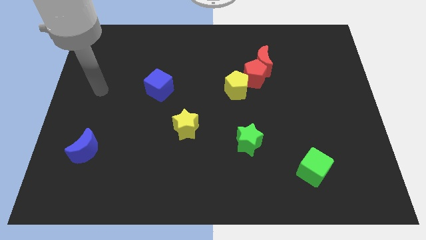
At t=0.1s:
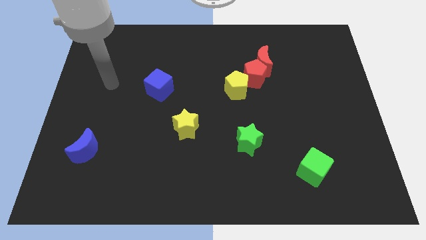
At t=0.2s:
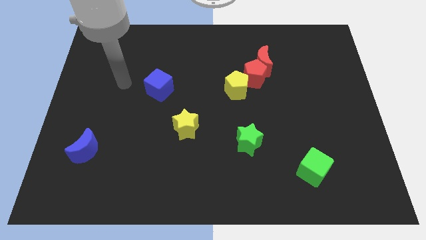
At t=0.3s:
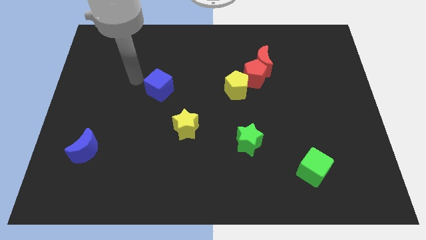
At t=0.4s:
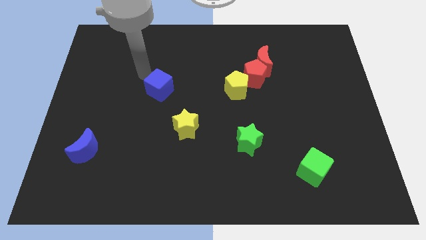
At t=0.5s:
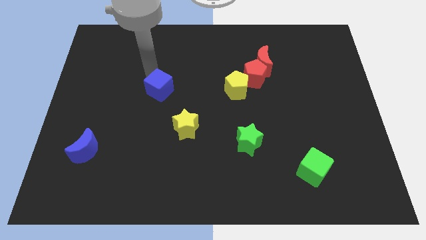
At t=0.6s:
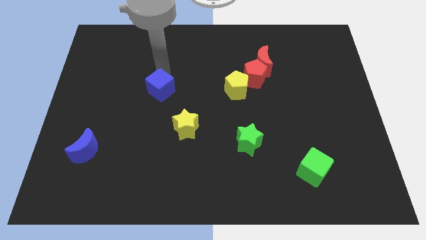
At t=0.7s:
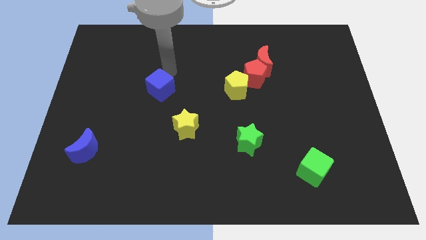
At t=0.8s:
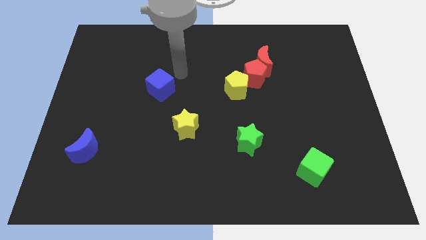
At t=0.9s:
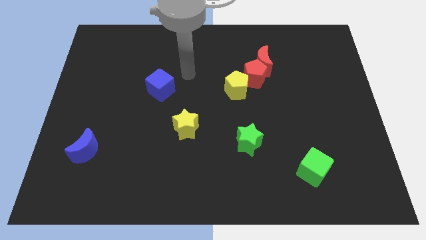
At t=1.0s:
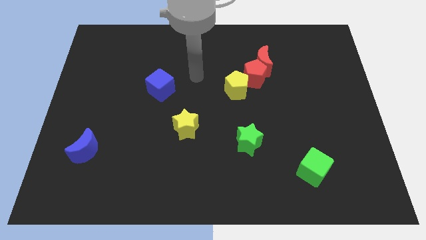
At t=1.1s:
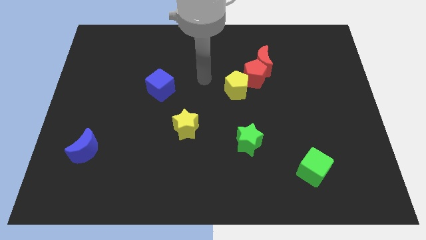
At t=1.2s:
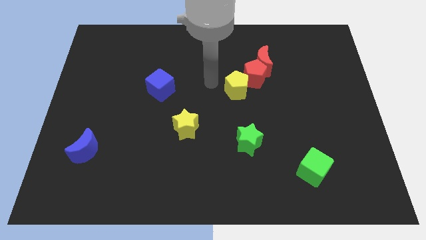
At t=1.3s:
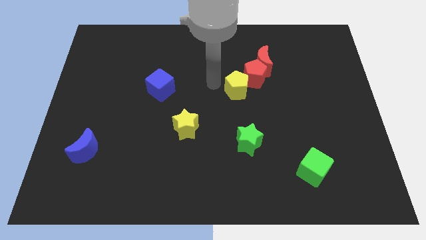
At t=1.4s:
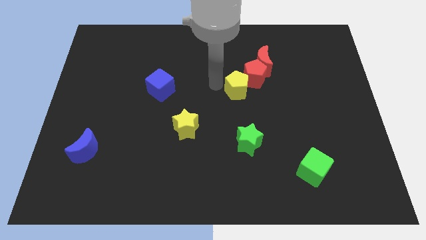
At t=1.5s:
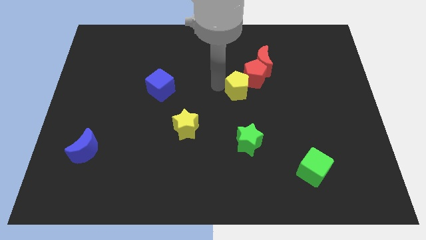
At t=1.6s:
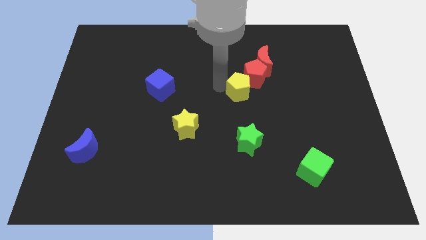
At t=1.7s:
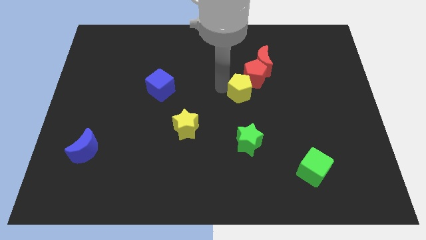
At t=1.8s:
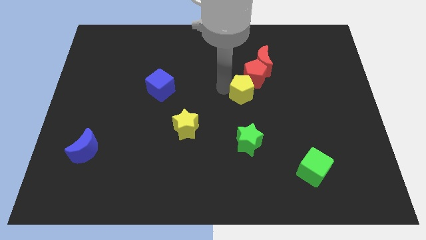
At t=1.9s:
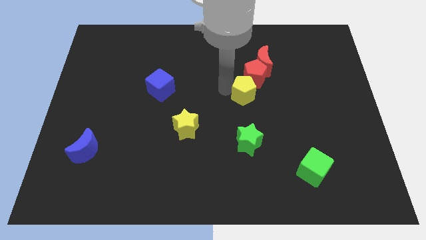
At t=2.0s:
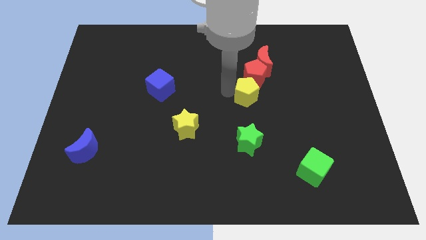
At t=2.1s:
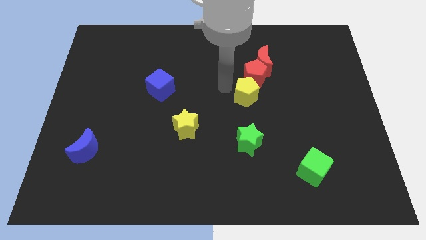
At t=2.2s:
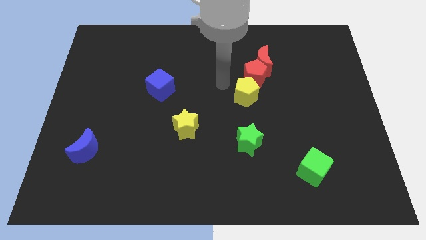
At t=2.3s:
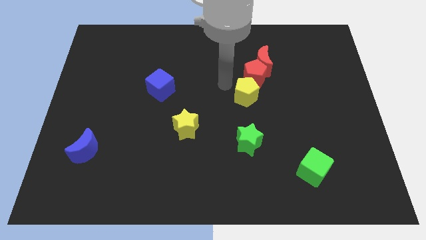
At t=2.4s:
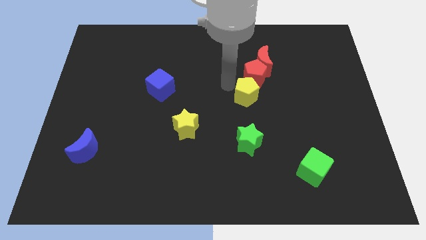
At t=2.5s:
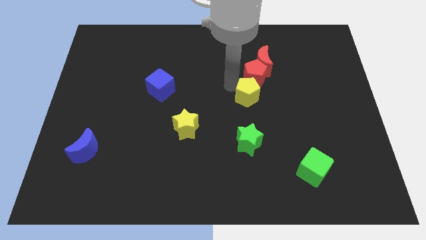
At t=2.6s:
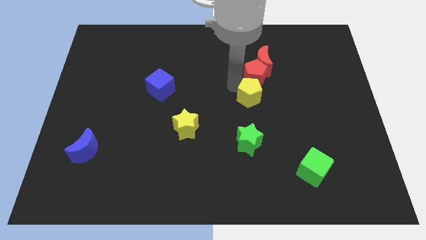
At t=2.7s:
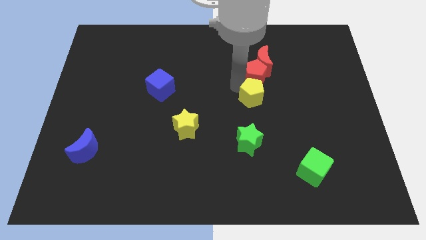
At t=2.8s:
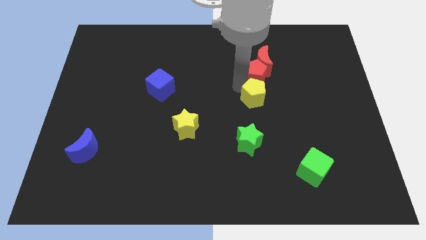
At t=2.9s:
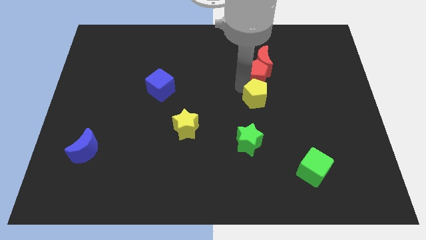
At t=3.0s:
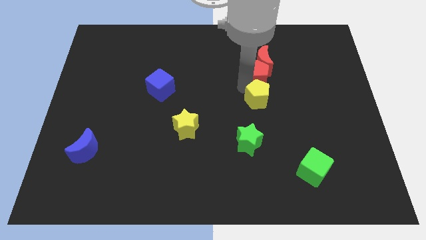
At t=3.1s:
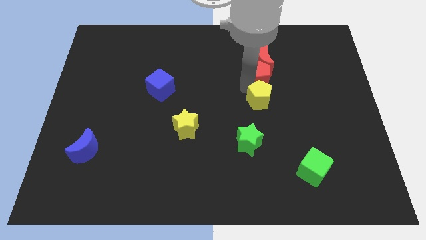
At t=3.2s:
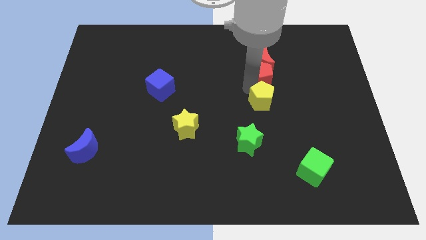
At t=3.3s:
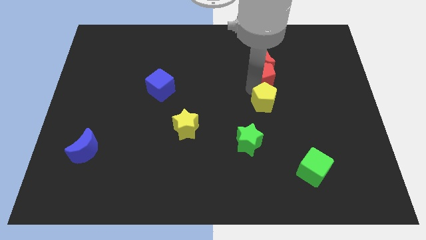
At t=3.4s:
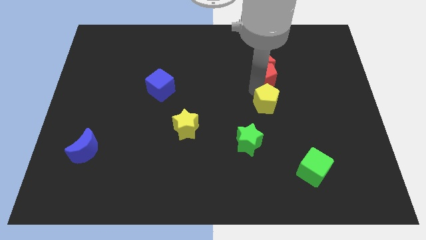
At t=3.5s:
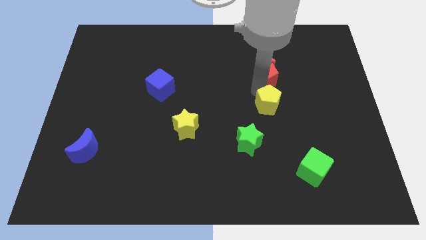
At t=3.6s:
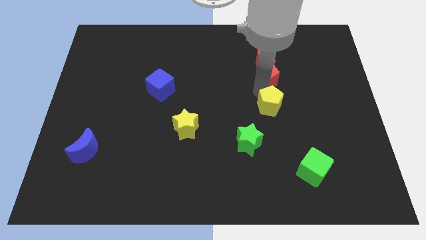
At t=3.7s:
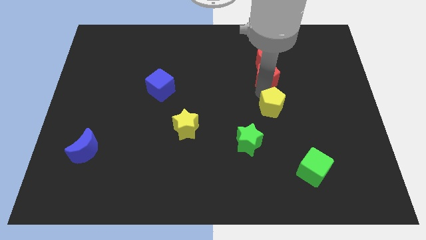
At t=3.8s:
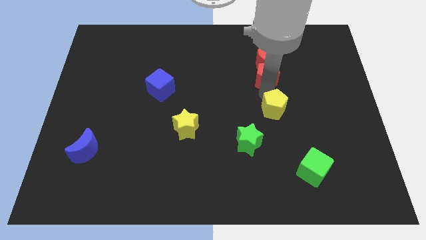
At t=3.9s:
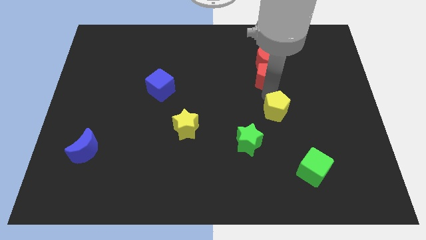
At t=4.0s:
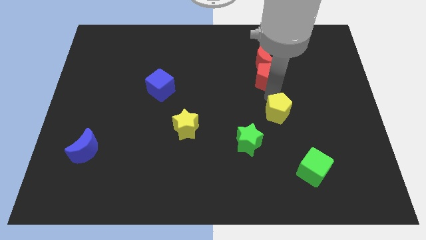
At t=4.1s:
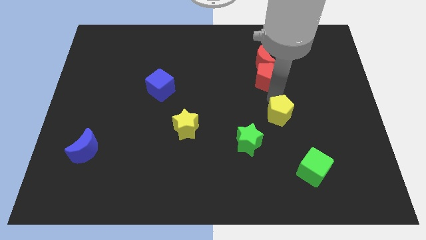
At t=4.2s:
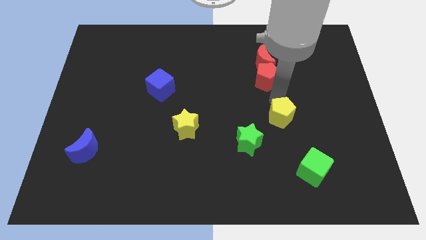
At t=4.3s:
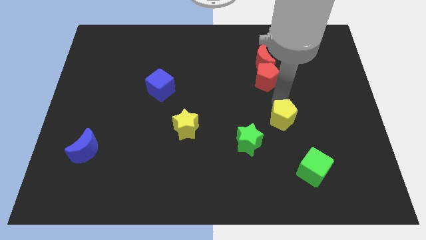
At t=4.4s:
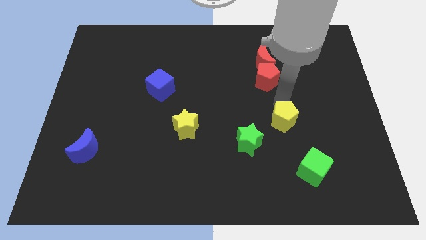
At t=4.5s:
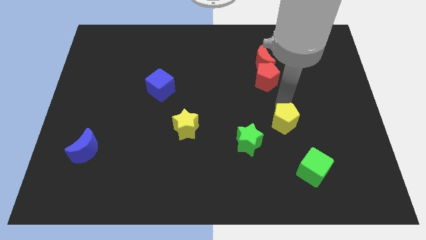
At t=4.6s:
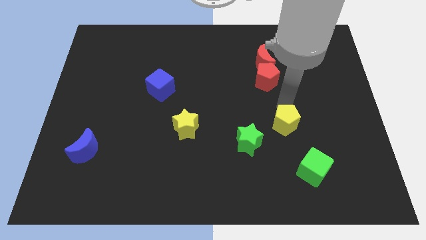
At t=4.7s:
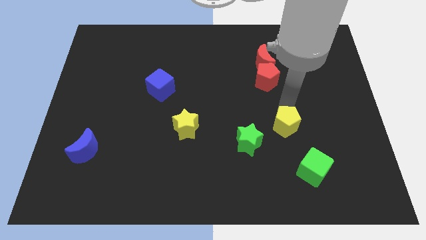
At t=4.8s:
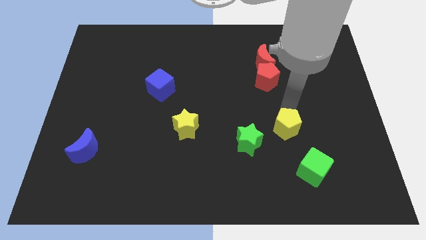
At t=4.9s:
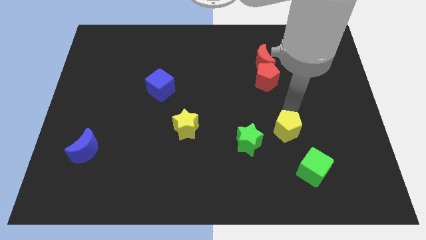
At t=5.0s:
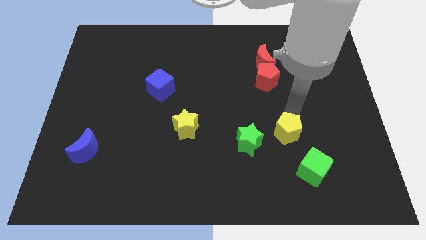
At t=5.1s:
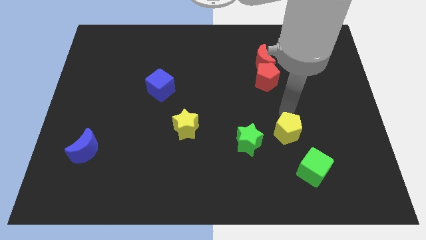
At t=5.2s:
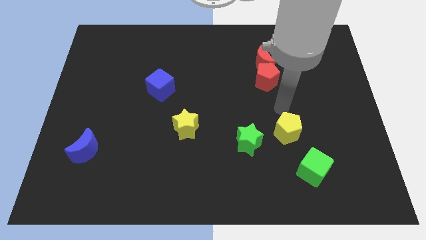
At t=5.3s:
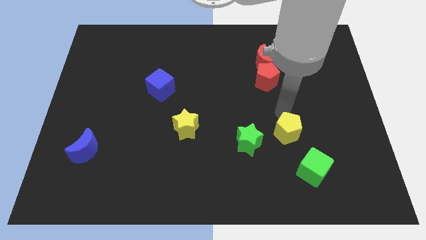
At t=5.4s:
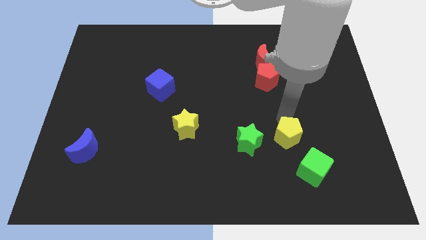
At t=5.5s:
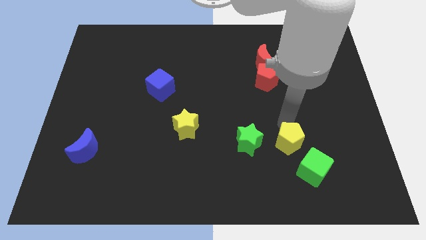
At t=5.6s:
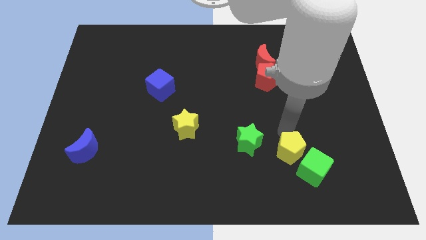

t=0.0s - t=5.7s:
move the yellow pentagon close to the green cube

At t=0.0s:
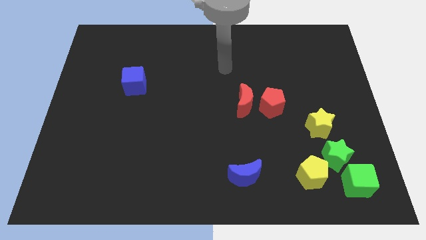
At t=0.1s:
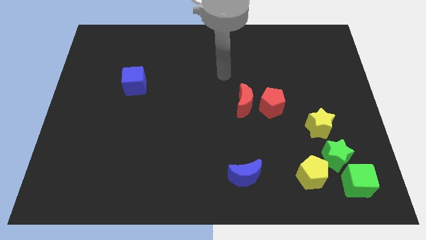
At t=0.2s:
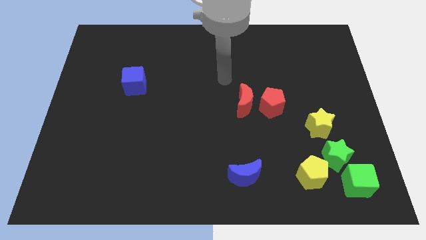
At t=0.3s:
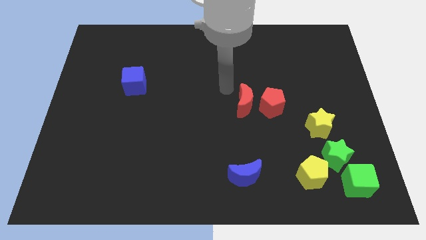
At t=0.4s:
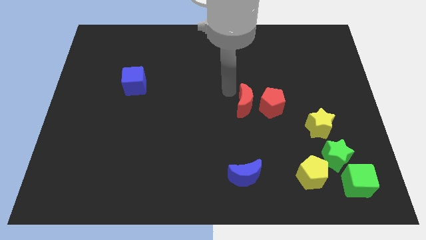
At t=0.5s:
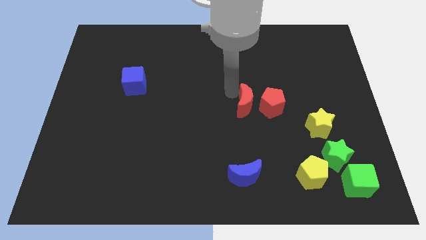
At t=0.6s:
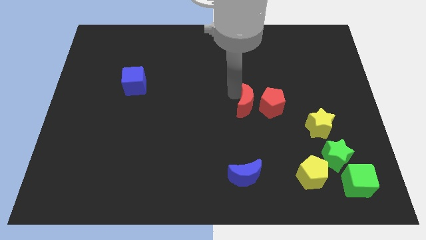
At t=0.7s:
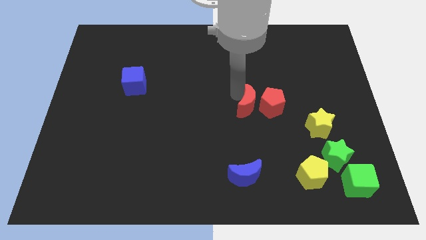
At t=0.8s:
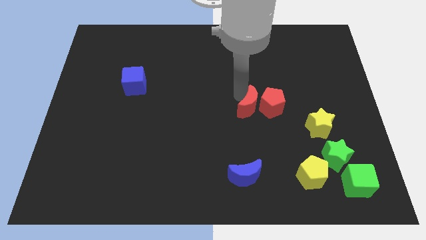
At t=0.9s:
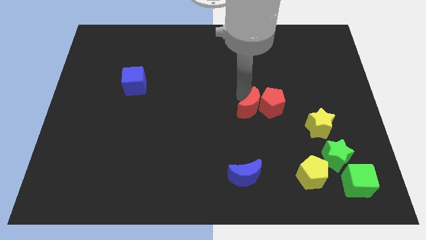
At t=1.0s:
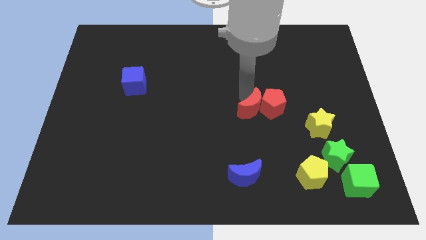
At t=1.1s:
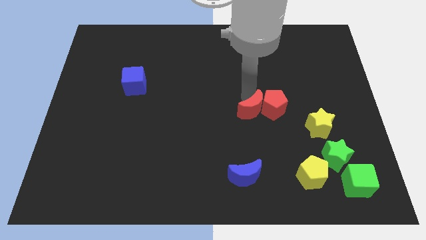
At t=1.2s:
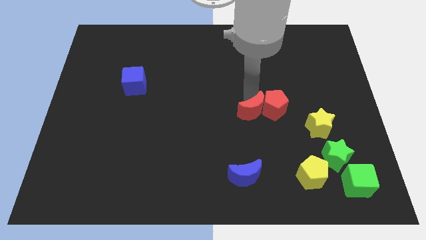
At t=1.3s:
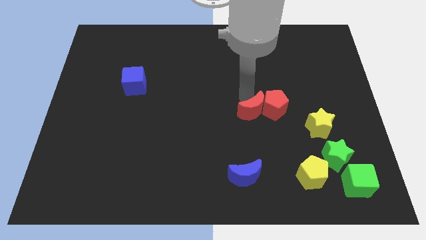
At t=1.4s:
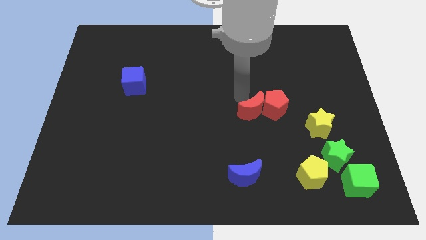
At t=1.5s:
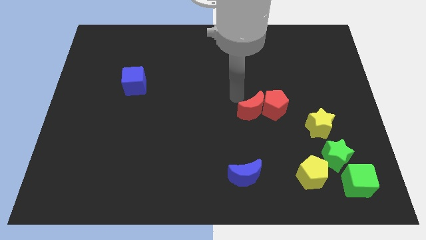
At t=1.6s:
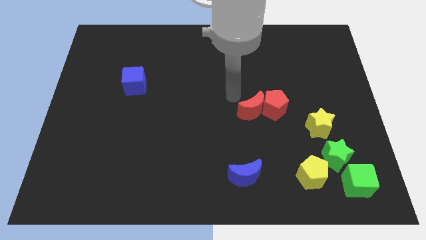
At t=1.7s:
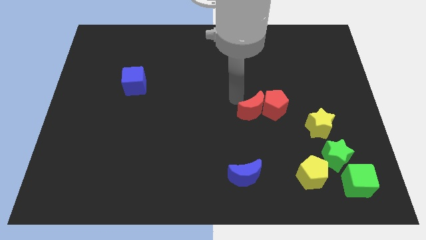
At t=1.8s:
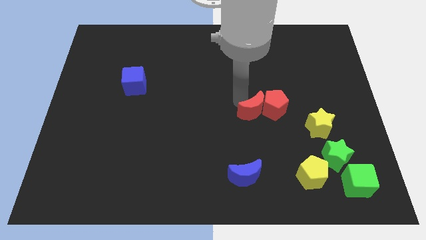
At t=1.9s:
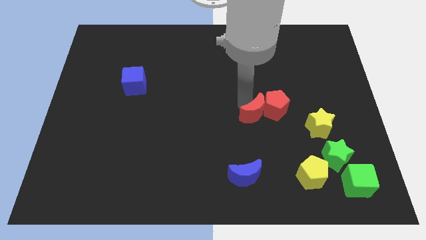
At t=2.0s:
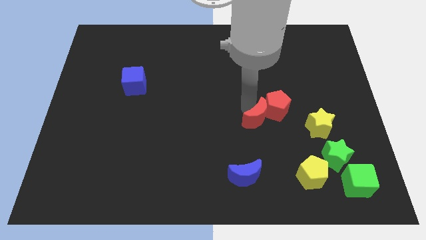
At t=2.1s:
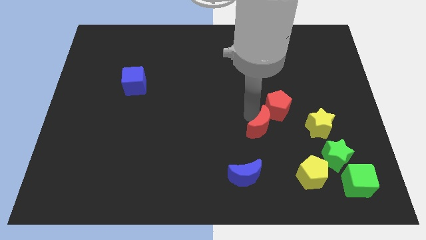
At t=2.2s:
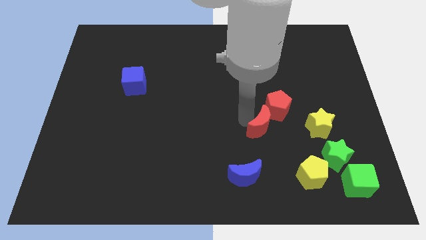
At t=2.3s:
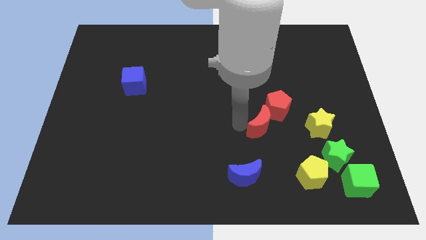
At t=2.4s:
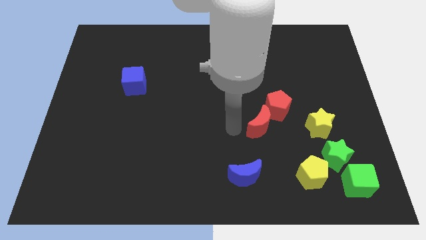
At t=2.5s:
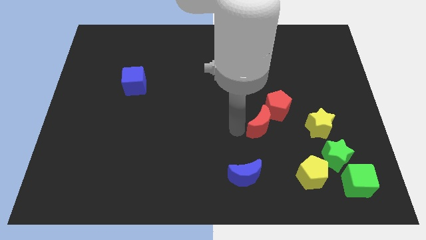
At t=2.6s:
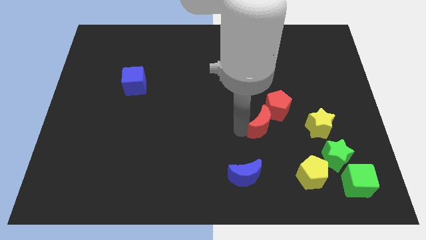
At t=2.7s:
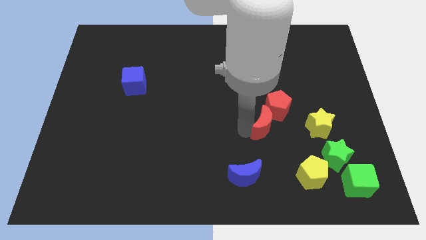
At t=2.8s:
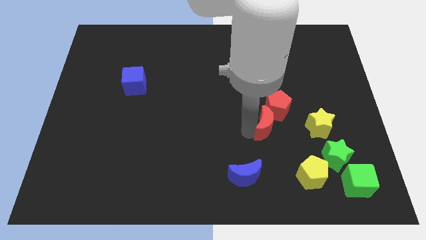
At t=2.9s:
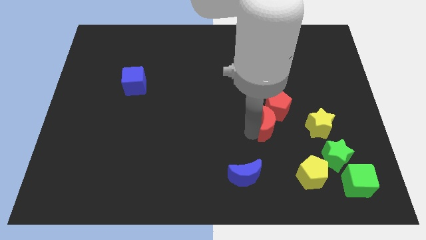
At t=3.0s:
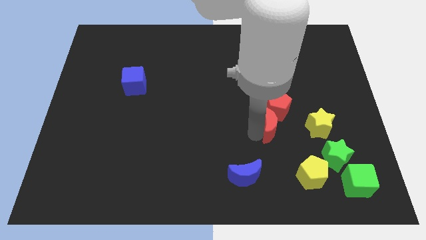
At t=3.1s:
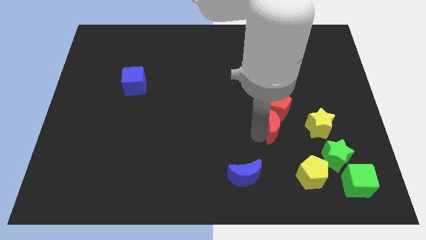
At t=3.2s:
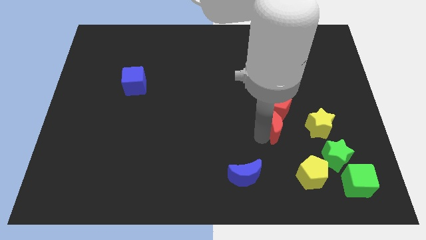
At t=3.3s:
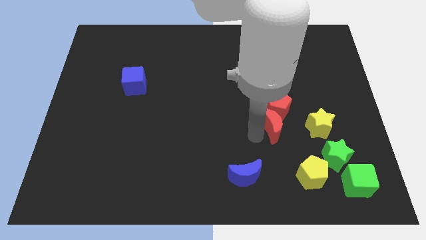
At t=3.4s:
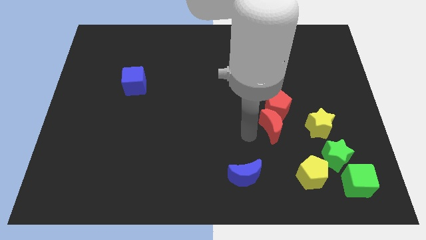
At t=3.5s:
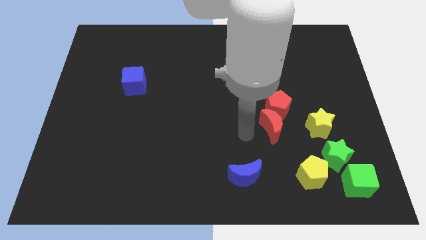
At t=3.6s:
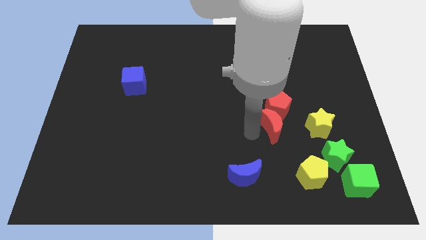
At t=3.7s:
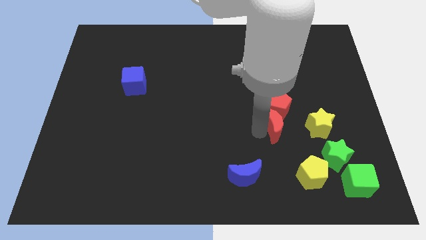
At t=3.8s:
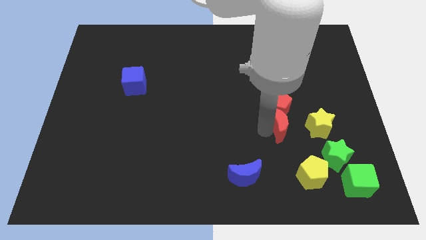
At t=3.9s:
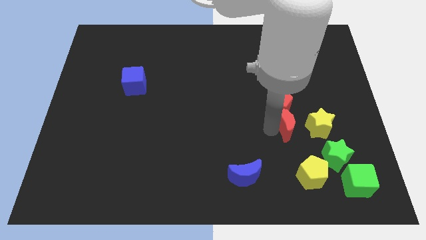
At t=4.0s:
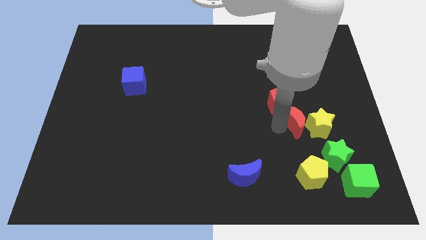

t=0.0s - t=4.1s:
move the red moon to the yellow star
